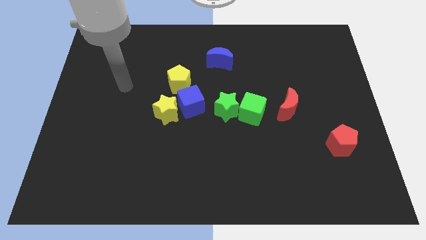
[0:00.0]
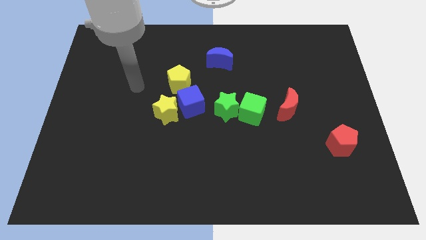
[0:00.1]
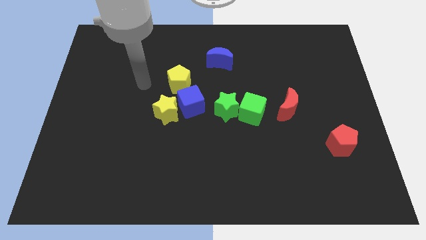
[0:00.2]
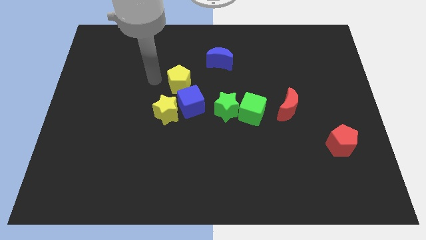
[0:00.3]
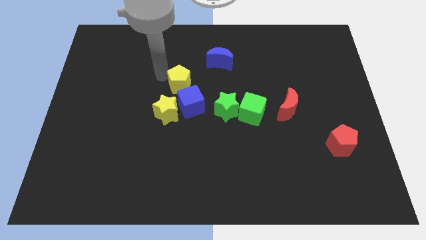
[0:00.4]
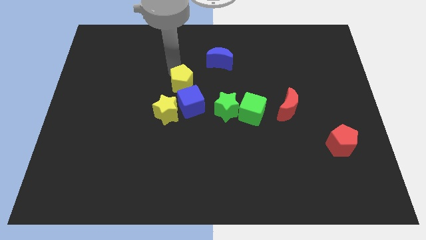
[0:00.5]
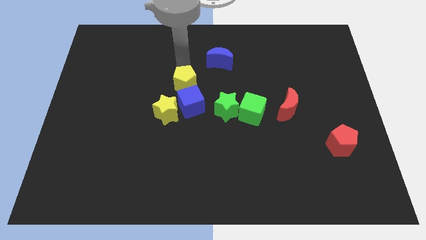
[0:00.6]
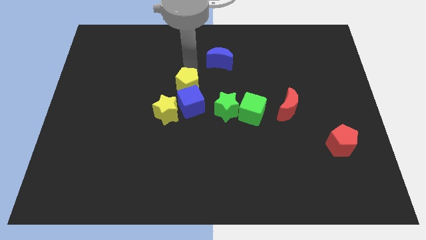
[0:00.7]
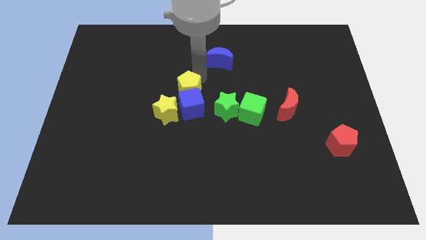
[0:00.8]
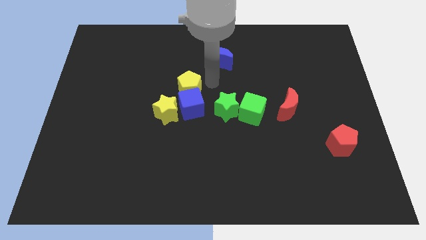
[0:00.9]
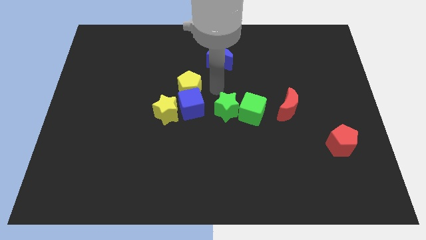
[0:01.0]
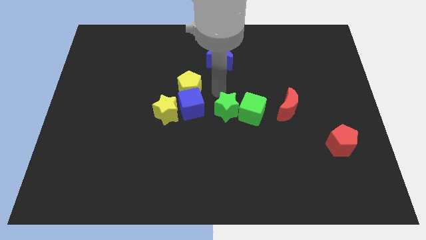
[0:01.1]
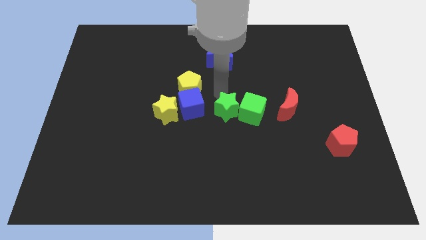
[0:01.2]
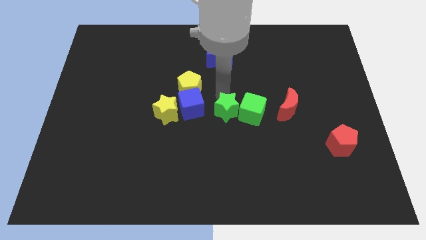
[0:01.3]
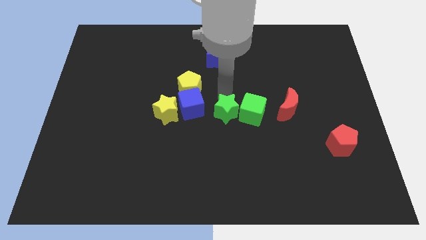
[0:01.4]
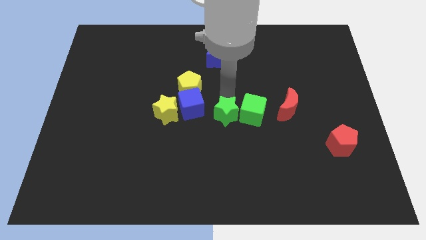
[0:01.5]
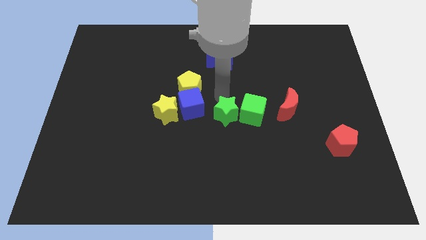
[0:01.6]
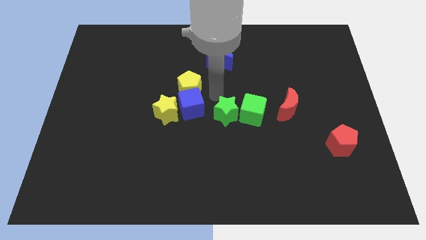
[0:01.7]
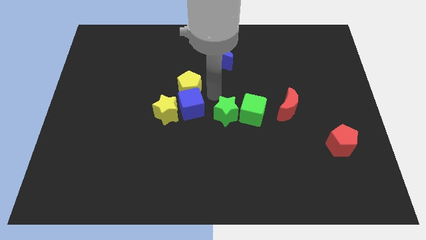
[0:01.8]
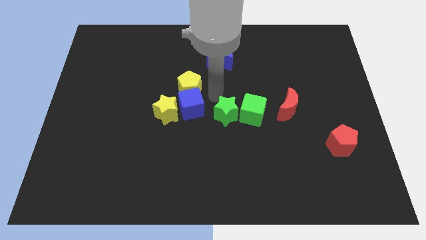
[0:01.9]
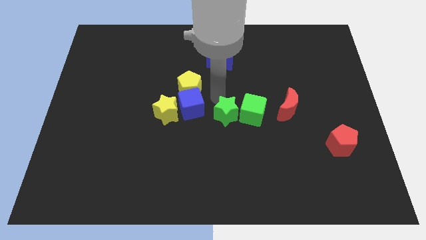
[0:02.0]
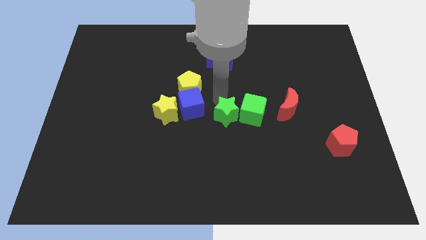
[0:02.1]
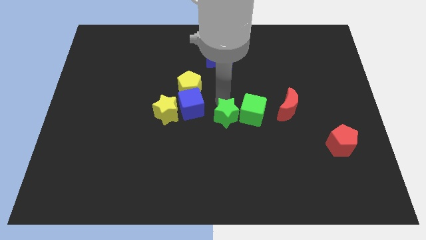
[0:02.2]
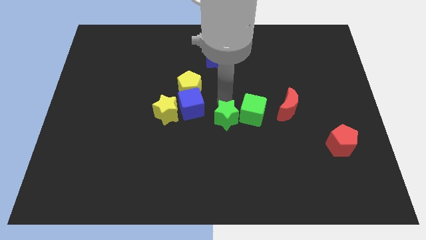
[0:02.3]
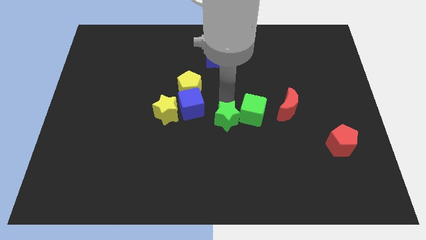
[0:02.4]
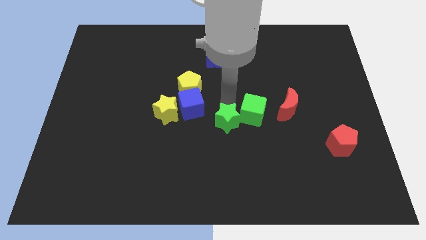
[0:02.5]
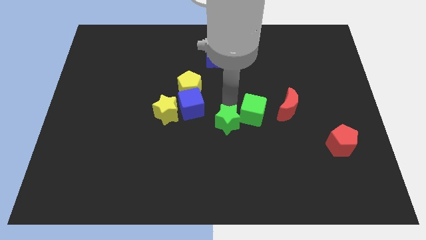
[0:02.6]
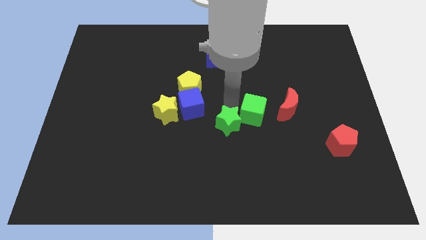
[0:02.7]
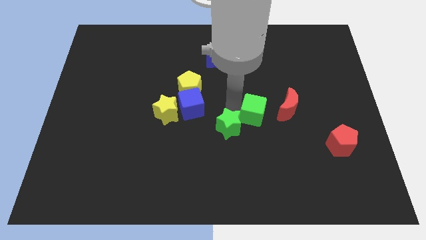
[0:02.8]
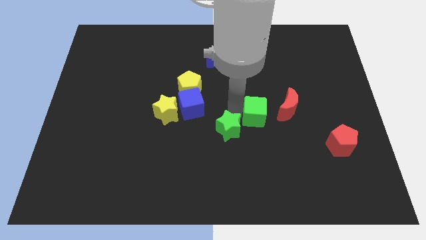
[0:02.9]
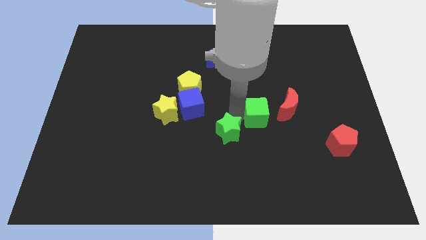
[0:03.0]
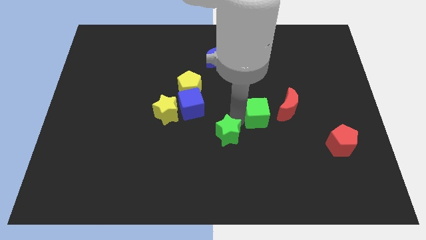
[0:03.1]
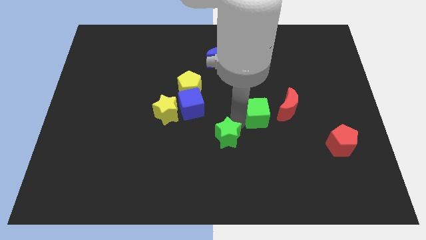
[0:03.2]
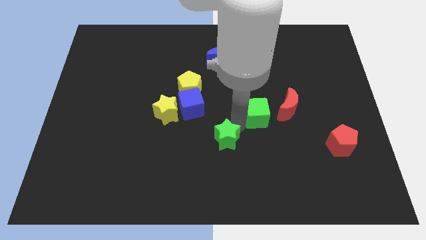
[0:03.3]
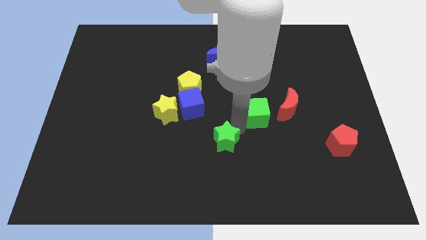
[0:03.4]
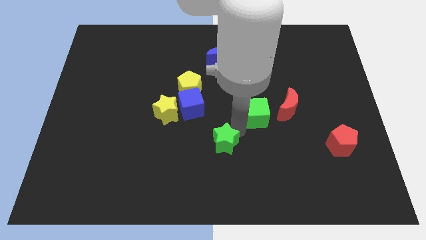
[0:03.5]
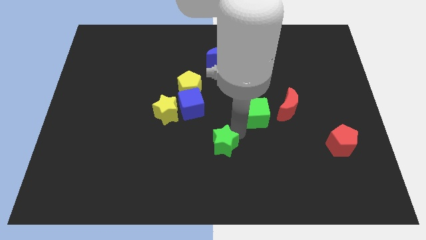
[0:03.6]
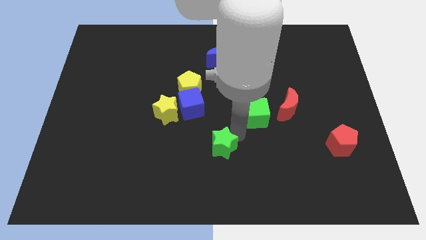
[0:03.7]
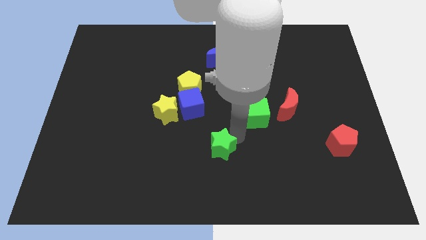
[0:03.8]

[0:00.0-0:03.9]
separate the green star from the green cube and blue cube

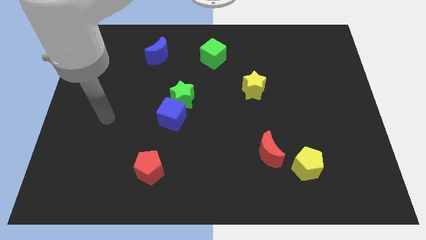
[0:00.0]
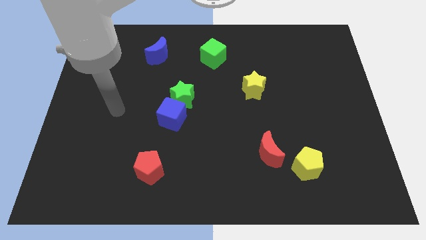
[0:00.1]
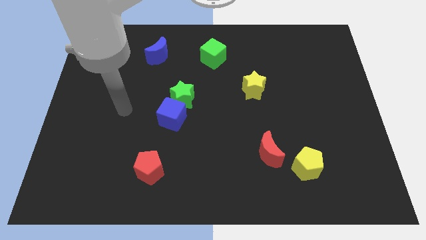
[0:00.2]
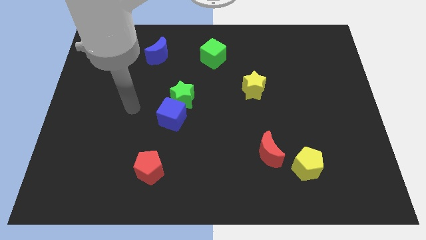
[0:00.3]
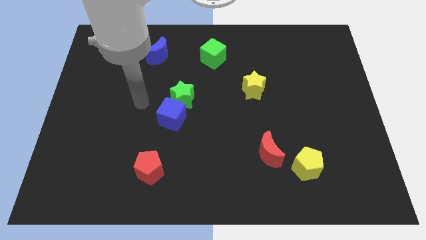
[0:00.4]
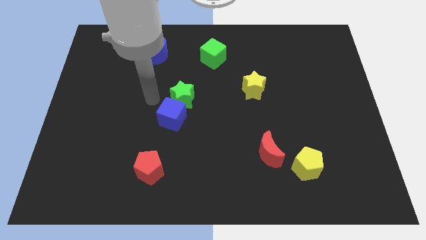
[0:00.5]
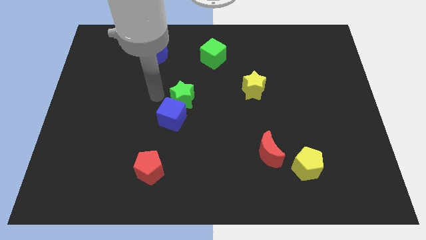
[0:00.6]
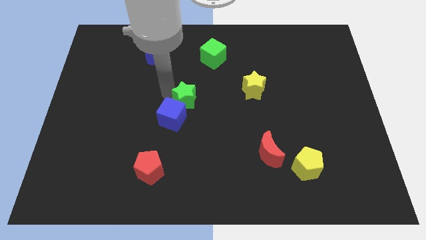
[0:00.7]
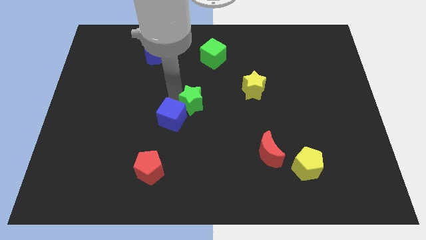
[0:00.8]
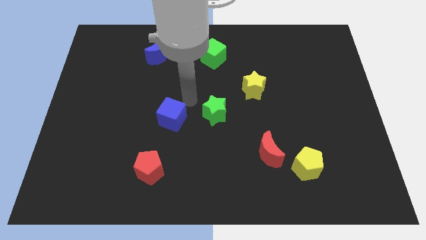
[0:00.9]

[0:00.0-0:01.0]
separate the blue cube from the green star

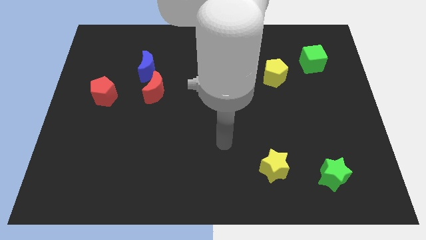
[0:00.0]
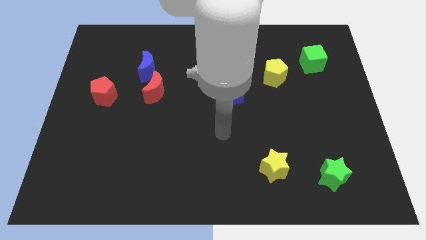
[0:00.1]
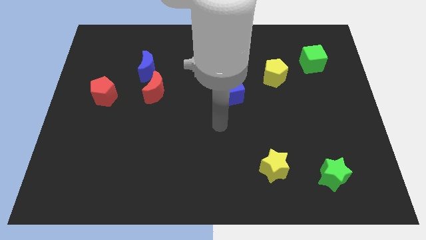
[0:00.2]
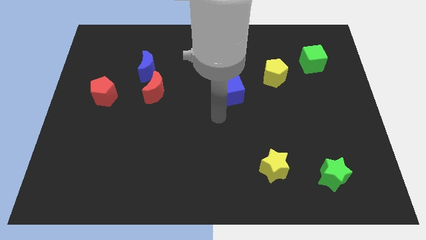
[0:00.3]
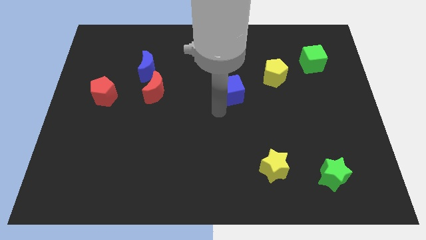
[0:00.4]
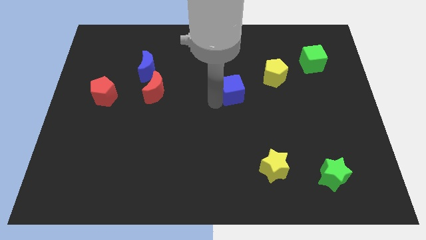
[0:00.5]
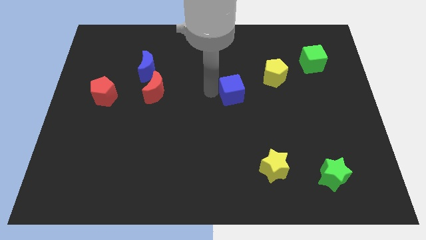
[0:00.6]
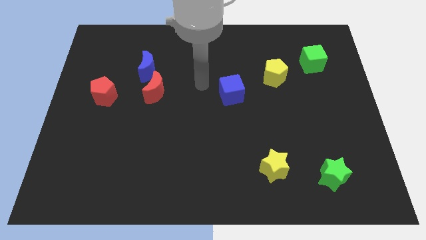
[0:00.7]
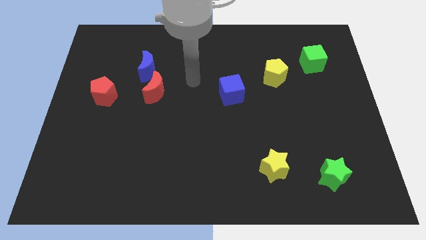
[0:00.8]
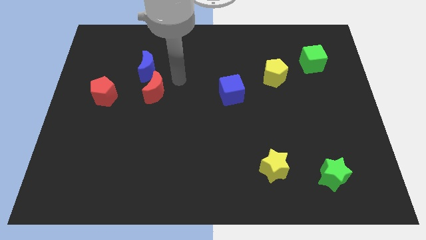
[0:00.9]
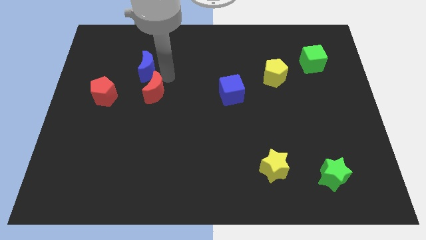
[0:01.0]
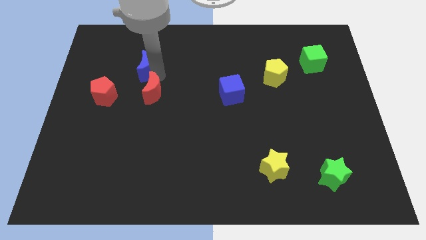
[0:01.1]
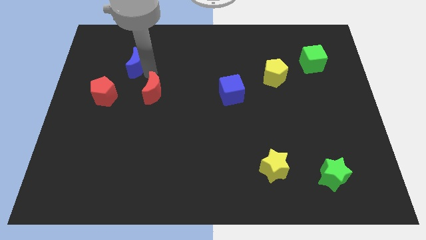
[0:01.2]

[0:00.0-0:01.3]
move the red moon away from the blue moon

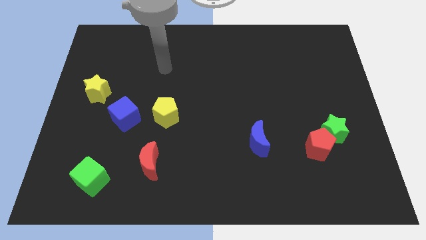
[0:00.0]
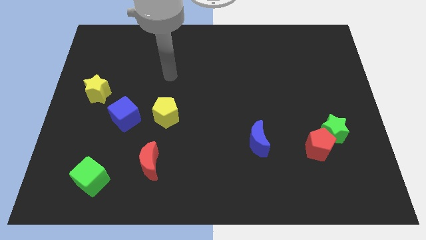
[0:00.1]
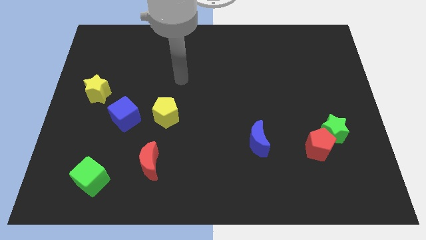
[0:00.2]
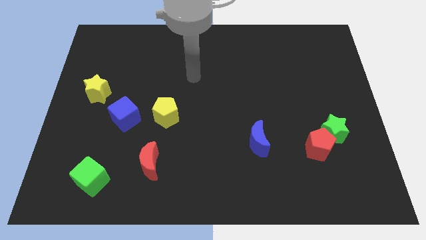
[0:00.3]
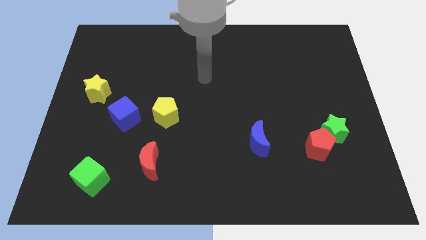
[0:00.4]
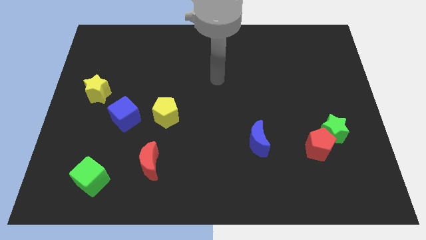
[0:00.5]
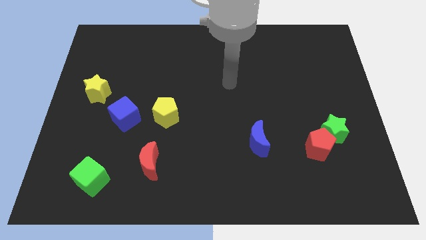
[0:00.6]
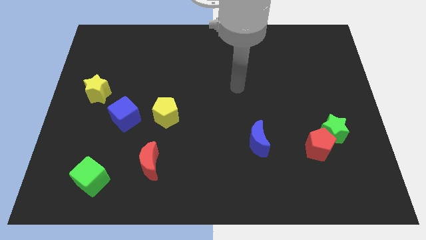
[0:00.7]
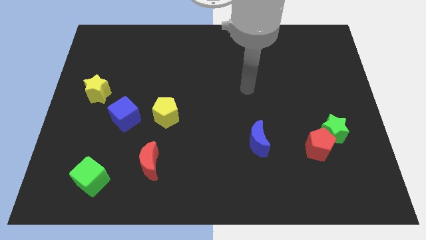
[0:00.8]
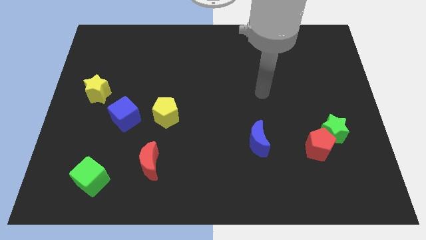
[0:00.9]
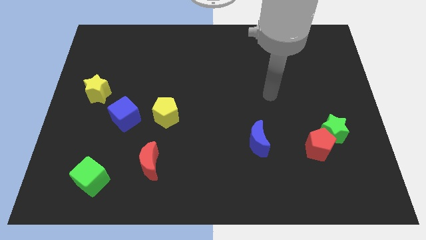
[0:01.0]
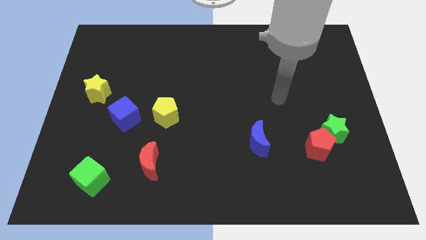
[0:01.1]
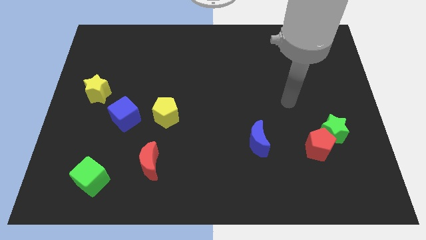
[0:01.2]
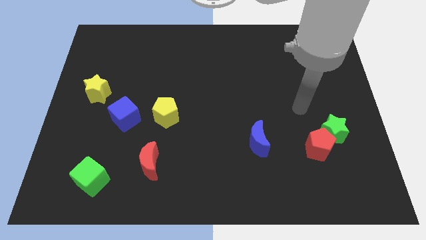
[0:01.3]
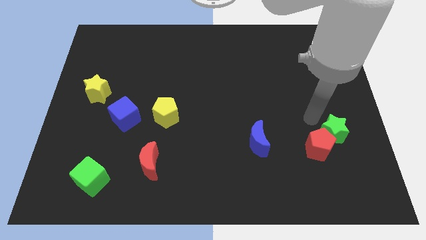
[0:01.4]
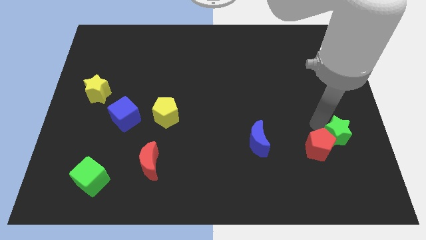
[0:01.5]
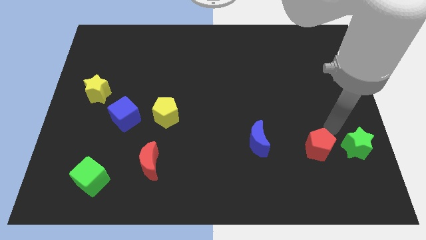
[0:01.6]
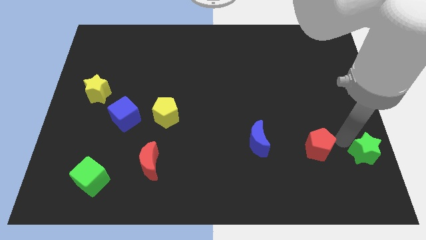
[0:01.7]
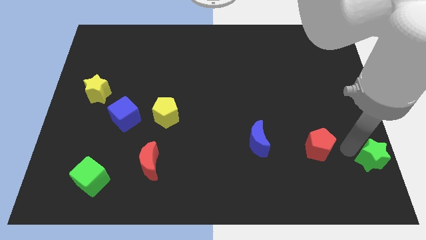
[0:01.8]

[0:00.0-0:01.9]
move the red pentagon away from the green star

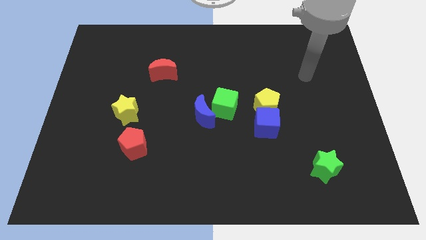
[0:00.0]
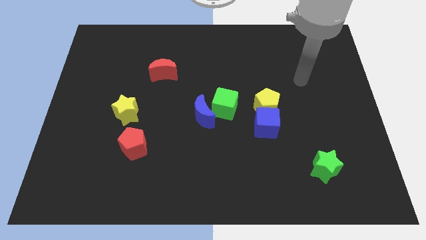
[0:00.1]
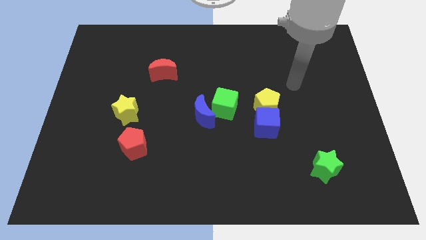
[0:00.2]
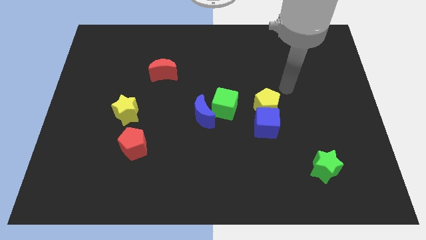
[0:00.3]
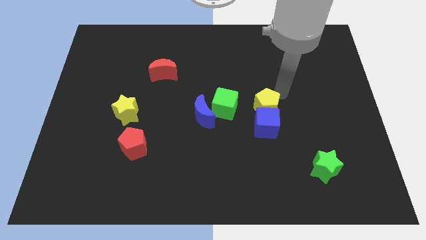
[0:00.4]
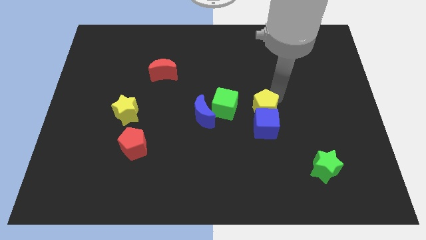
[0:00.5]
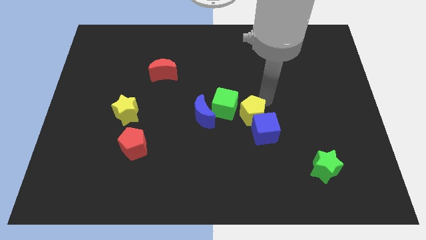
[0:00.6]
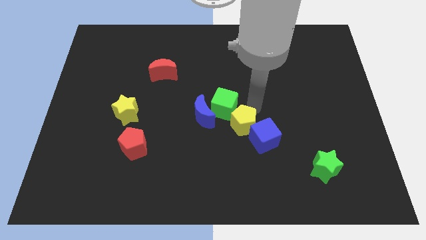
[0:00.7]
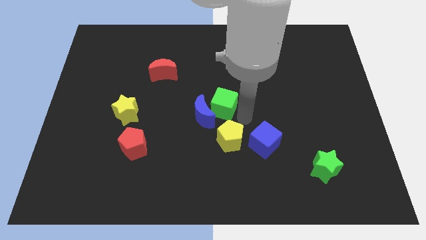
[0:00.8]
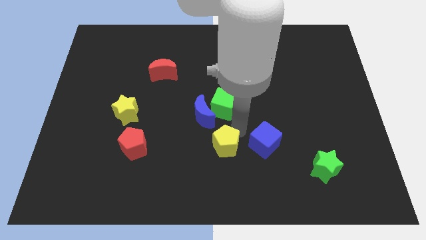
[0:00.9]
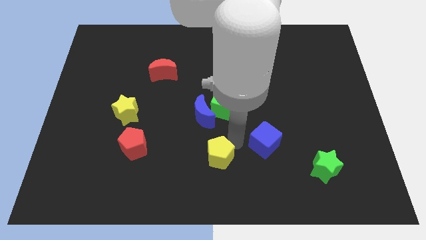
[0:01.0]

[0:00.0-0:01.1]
separate the blue cube from the yellow pentagon

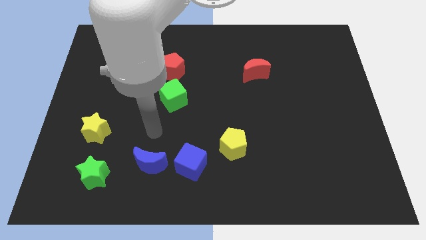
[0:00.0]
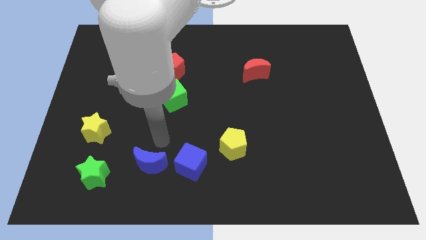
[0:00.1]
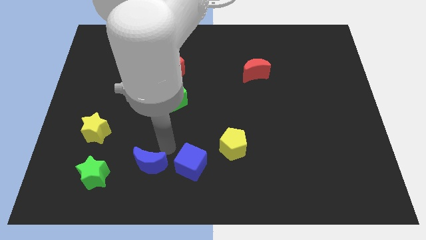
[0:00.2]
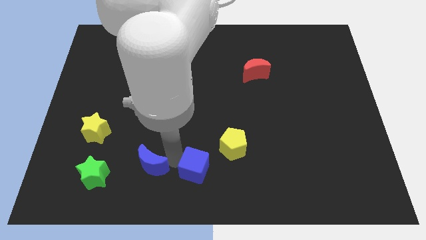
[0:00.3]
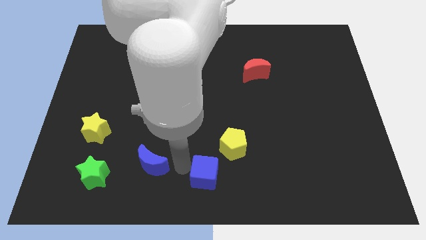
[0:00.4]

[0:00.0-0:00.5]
move the blue moon away from the blue cube
